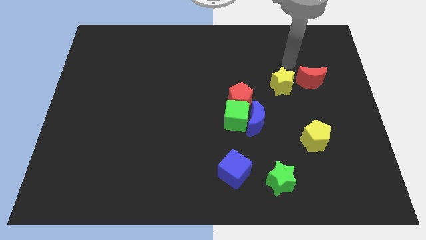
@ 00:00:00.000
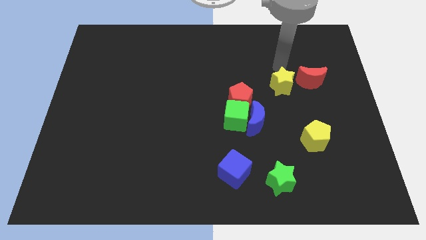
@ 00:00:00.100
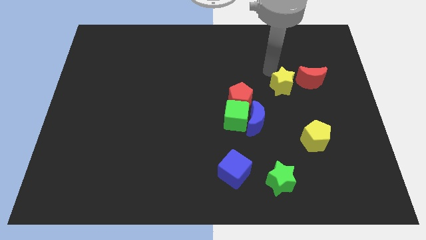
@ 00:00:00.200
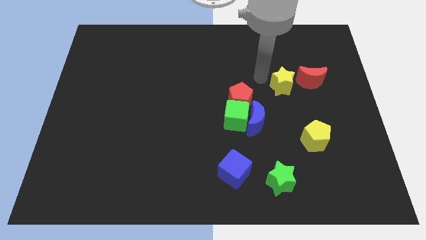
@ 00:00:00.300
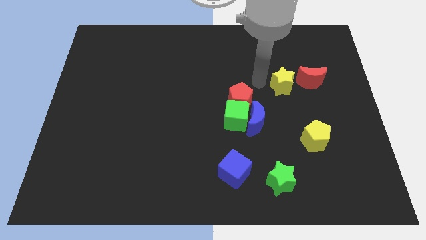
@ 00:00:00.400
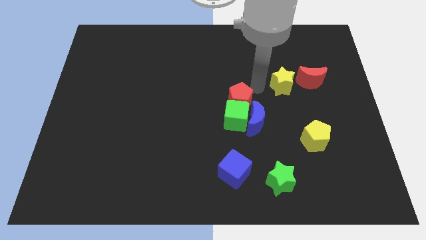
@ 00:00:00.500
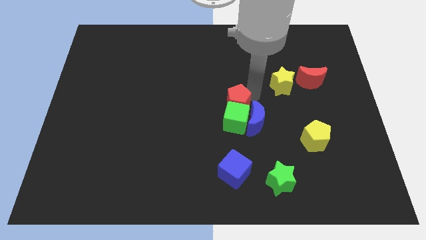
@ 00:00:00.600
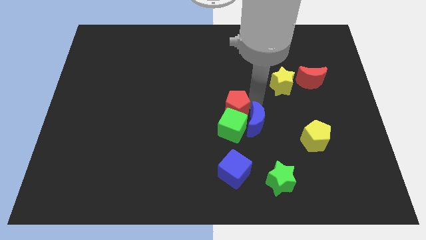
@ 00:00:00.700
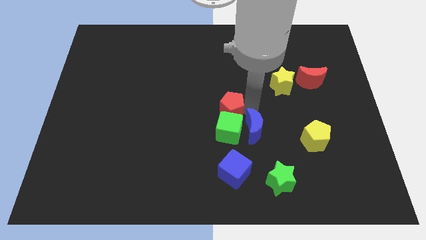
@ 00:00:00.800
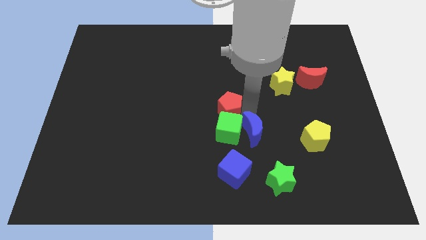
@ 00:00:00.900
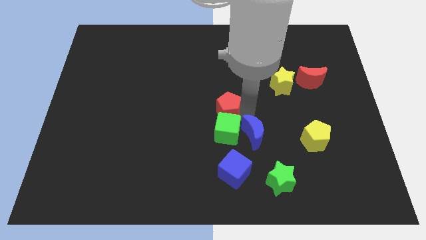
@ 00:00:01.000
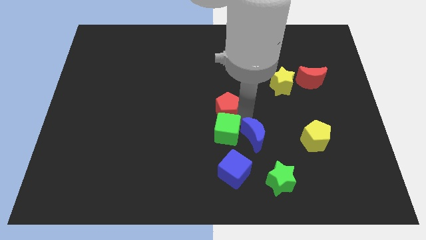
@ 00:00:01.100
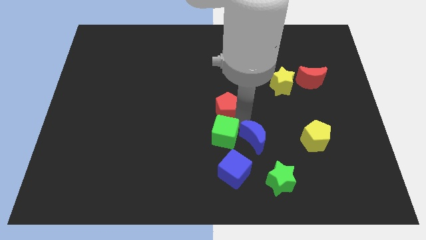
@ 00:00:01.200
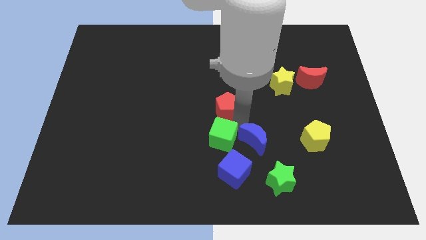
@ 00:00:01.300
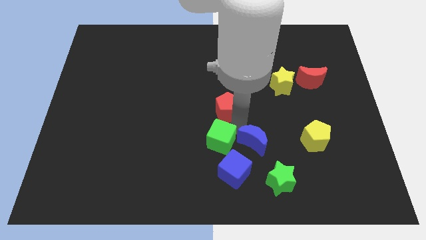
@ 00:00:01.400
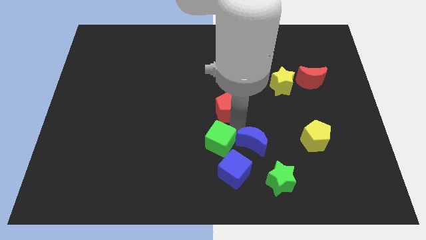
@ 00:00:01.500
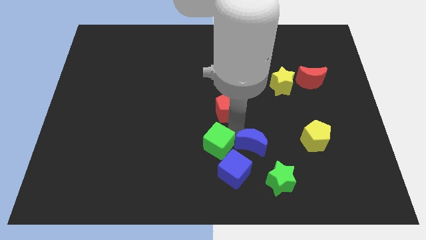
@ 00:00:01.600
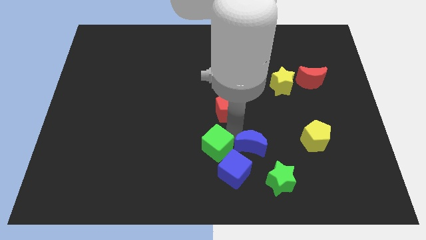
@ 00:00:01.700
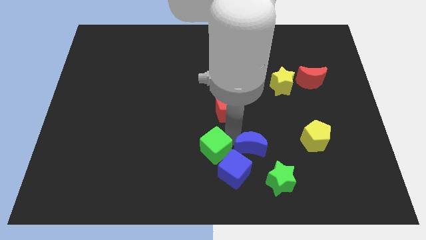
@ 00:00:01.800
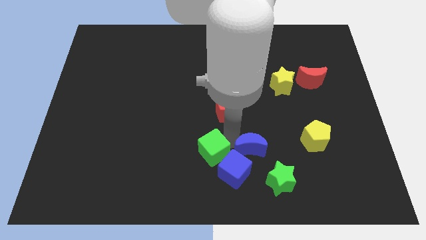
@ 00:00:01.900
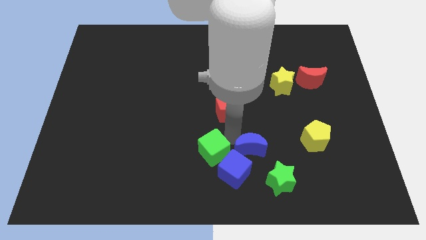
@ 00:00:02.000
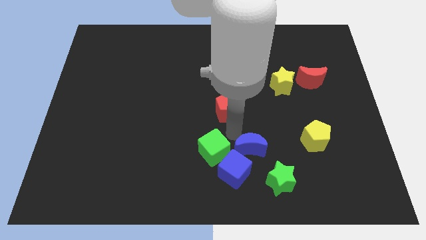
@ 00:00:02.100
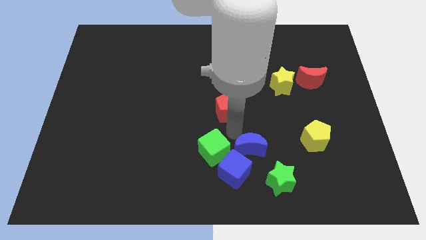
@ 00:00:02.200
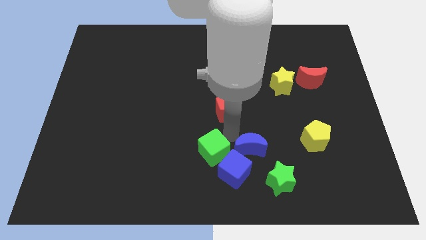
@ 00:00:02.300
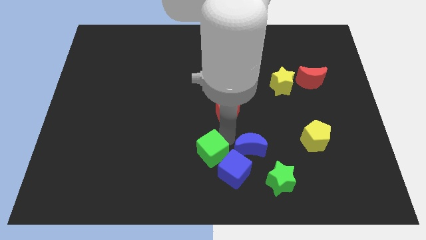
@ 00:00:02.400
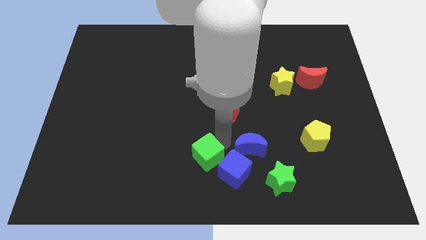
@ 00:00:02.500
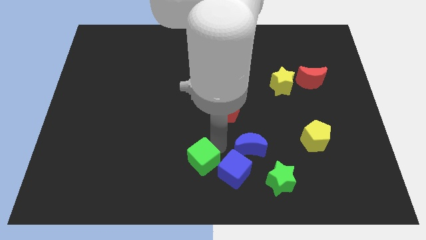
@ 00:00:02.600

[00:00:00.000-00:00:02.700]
separate the green cube from the blue moon and red pentagon

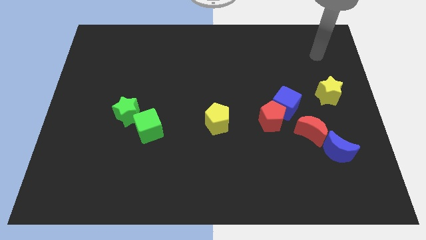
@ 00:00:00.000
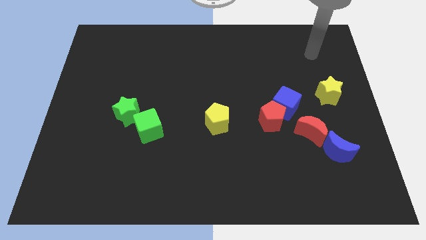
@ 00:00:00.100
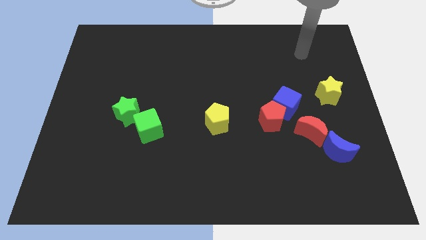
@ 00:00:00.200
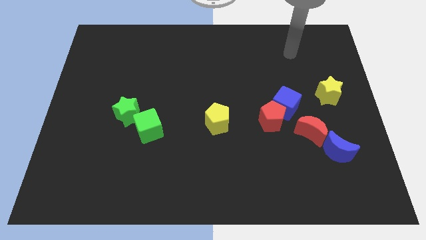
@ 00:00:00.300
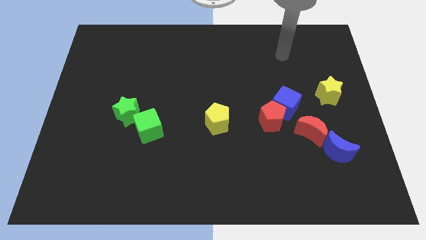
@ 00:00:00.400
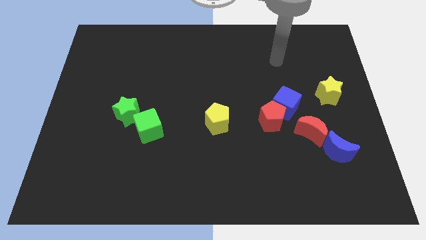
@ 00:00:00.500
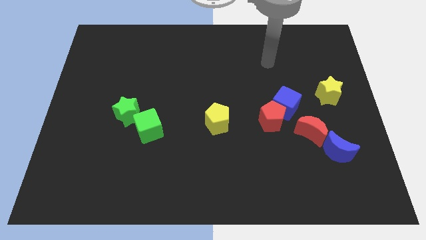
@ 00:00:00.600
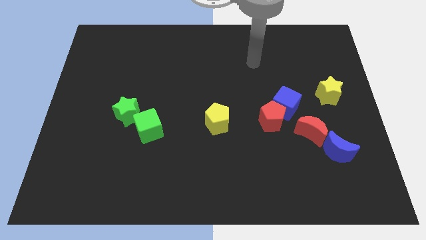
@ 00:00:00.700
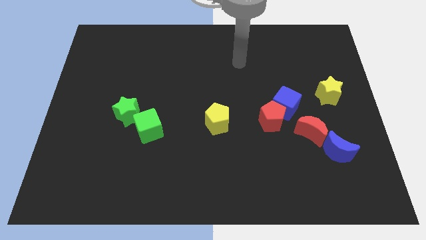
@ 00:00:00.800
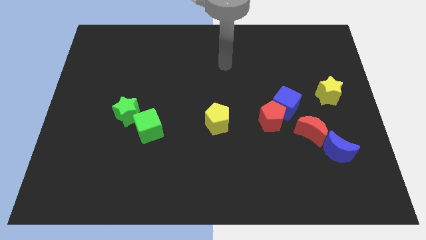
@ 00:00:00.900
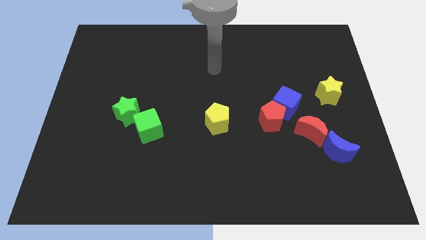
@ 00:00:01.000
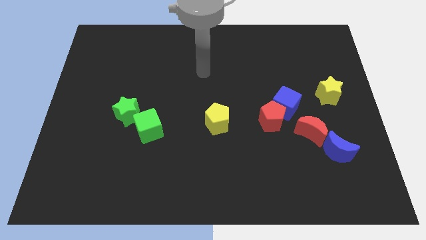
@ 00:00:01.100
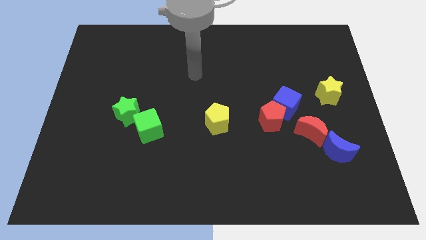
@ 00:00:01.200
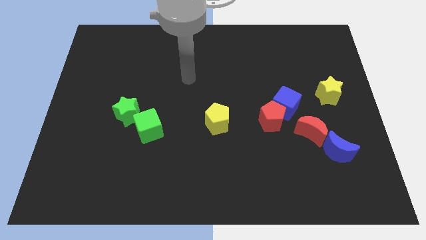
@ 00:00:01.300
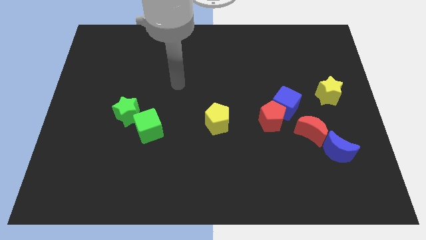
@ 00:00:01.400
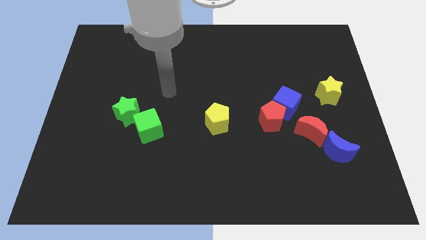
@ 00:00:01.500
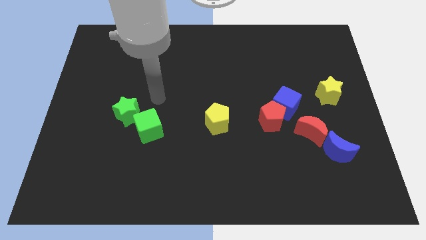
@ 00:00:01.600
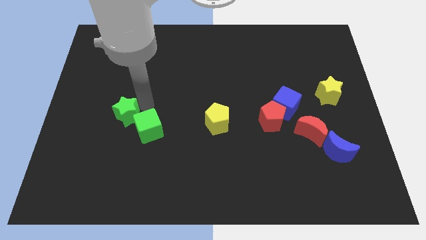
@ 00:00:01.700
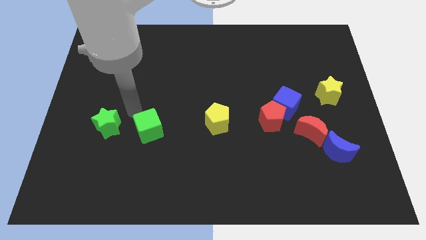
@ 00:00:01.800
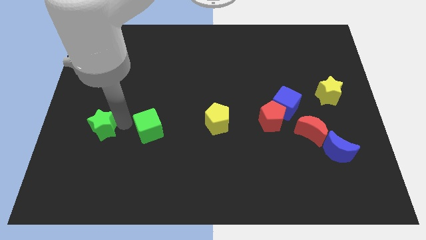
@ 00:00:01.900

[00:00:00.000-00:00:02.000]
separate the green cube from the green star

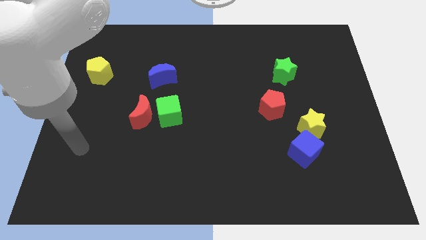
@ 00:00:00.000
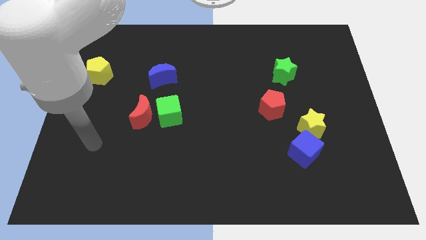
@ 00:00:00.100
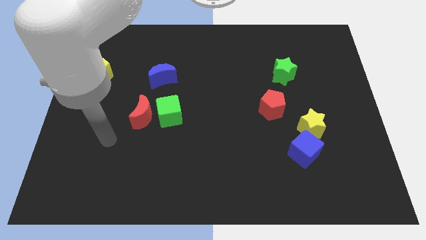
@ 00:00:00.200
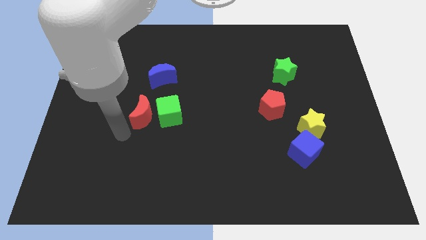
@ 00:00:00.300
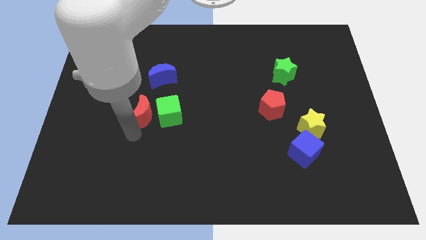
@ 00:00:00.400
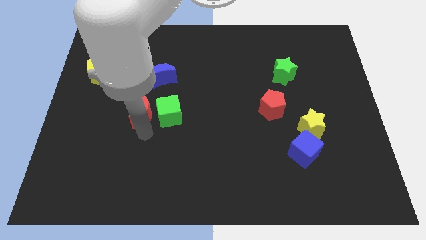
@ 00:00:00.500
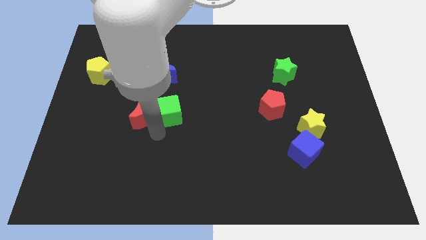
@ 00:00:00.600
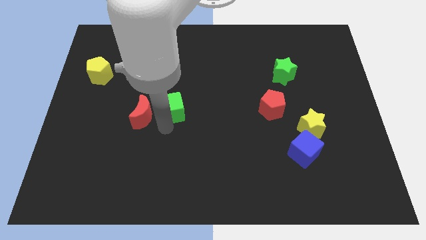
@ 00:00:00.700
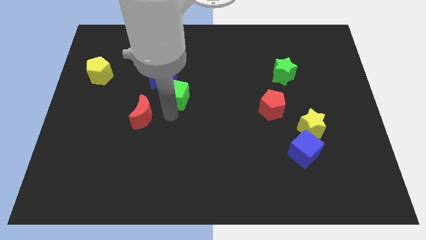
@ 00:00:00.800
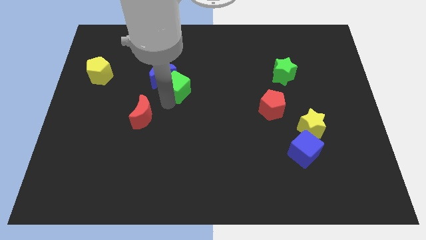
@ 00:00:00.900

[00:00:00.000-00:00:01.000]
pull the red moon apart from the green cube

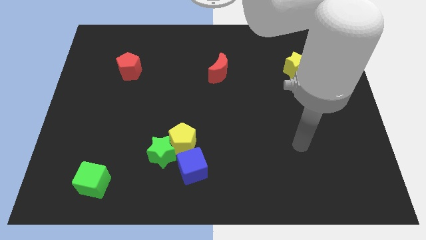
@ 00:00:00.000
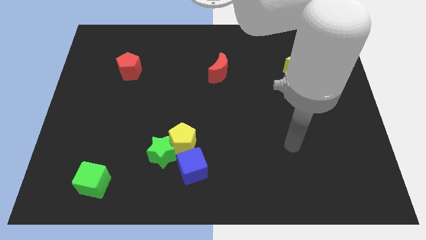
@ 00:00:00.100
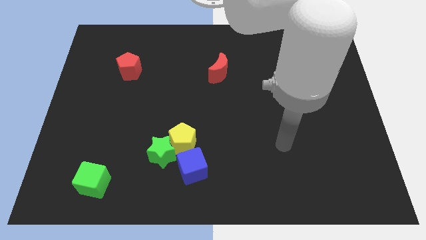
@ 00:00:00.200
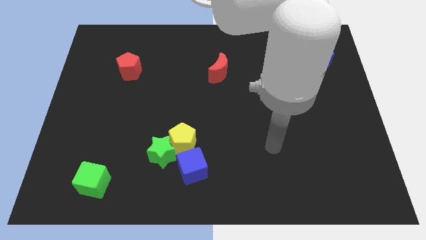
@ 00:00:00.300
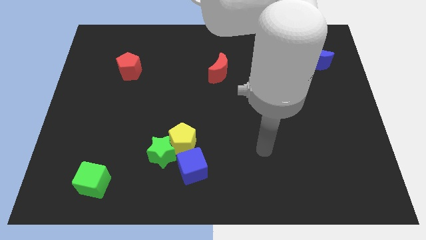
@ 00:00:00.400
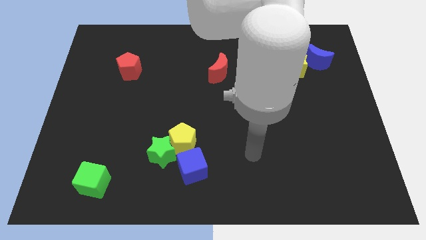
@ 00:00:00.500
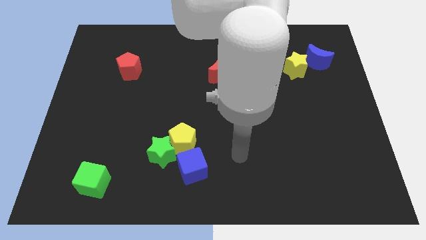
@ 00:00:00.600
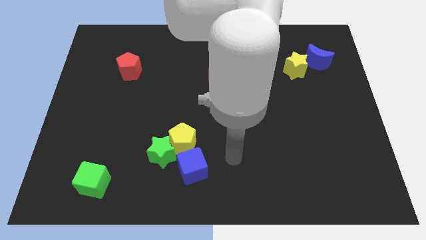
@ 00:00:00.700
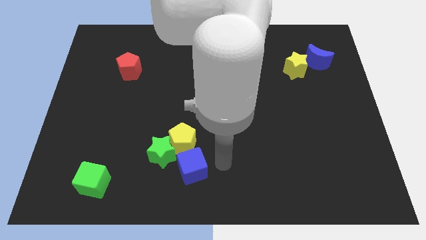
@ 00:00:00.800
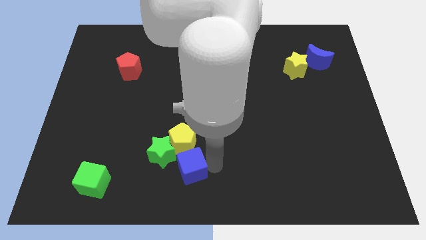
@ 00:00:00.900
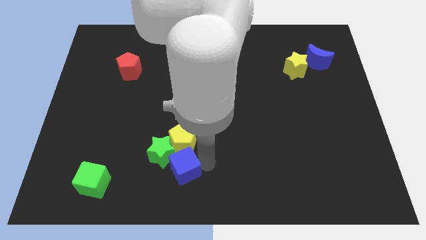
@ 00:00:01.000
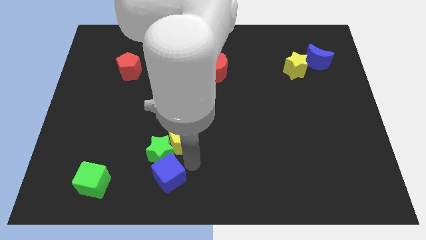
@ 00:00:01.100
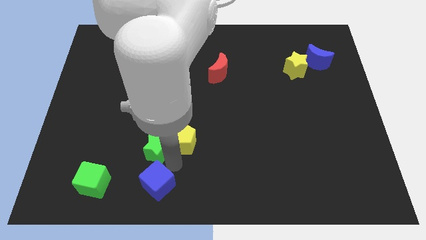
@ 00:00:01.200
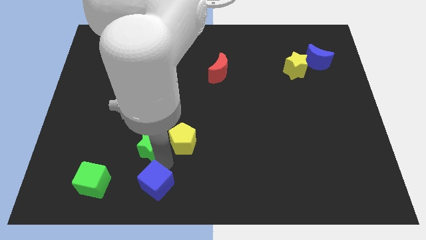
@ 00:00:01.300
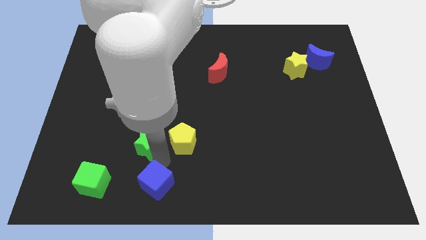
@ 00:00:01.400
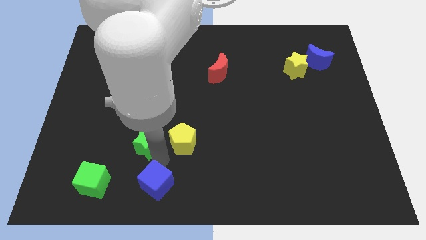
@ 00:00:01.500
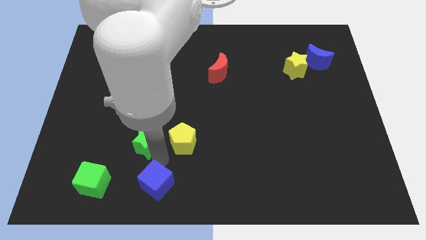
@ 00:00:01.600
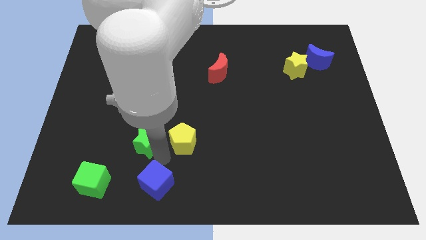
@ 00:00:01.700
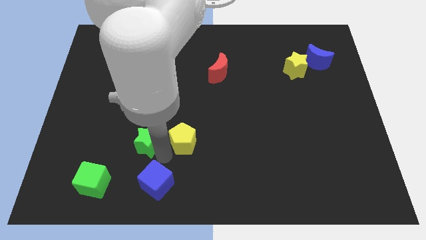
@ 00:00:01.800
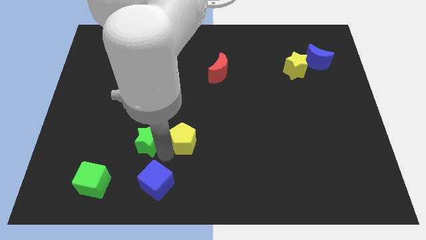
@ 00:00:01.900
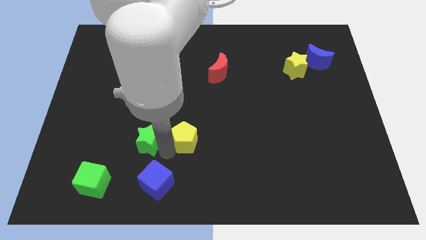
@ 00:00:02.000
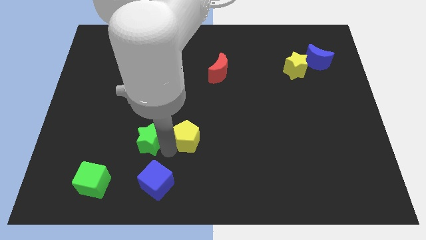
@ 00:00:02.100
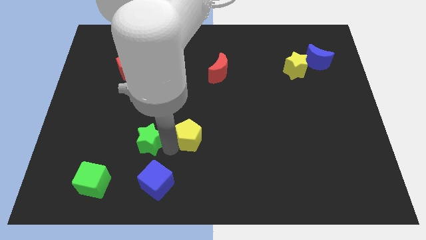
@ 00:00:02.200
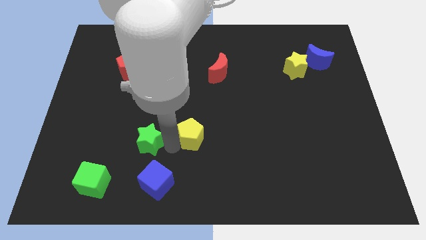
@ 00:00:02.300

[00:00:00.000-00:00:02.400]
pull the yellow pentagon apart from the green star and blue cube

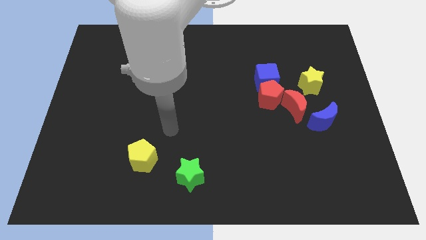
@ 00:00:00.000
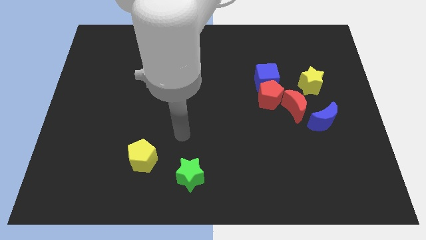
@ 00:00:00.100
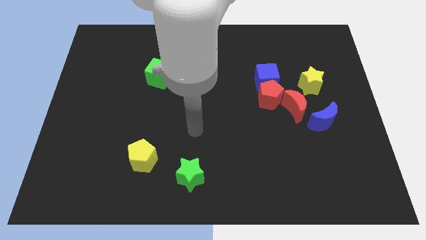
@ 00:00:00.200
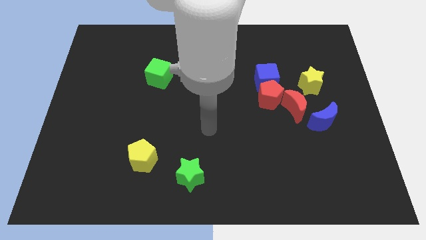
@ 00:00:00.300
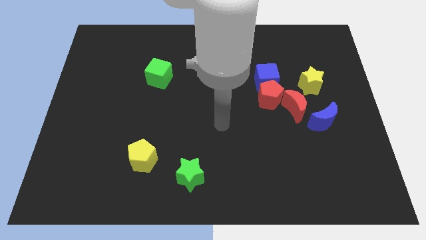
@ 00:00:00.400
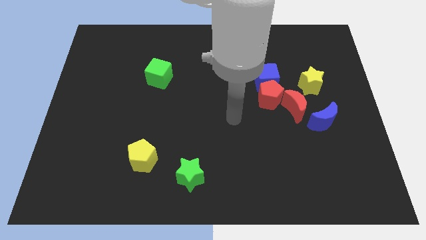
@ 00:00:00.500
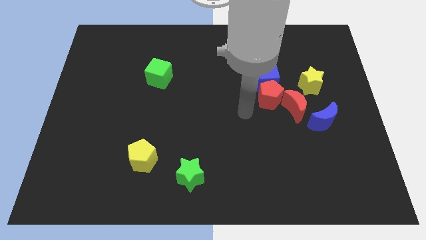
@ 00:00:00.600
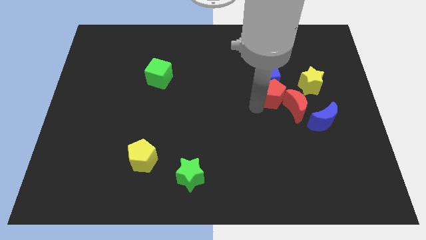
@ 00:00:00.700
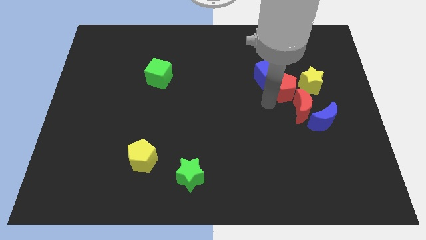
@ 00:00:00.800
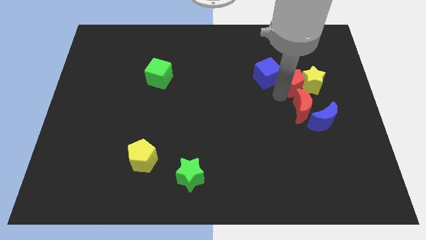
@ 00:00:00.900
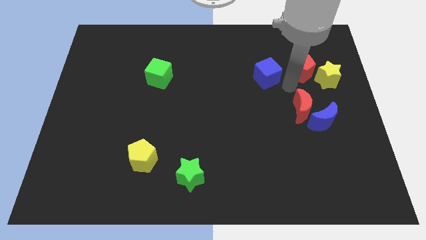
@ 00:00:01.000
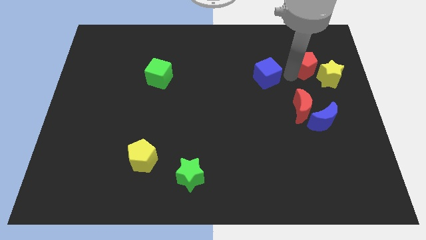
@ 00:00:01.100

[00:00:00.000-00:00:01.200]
separate the blue cube from the red pentagon
